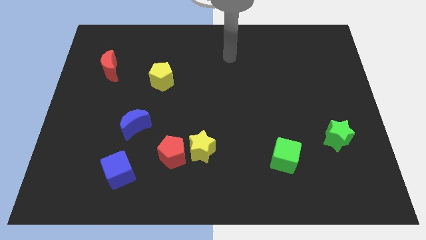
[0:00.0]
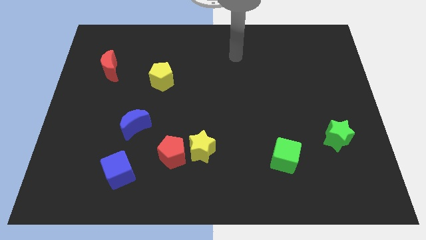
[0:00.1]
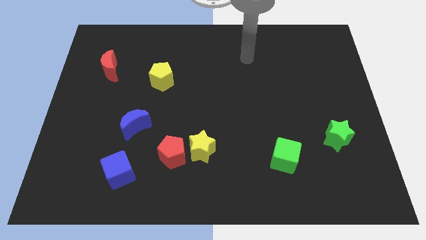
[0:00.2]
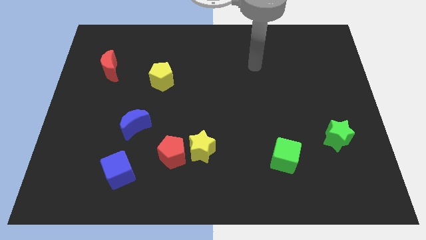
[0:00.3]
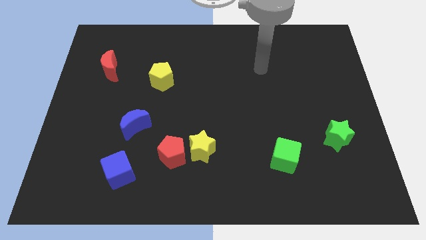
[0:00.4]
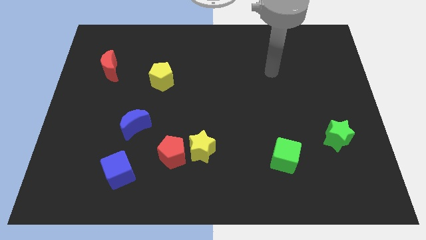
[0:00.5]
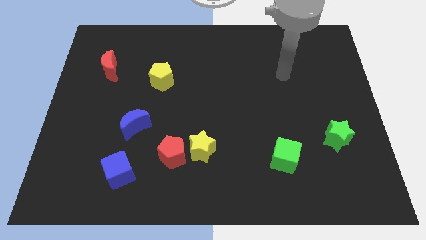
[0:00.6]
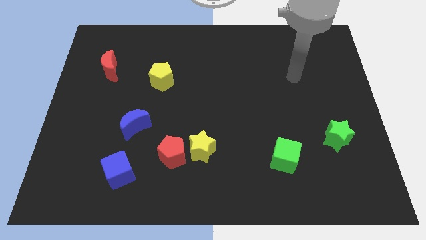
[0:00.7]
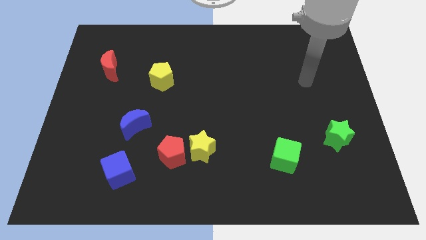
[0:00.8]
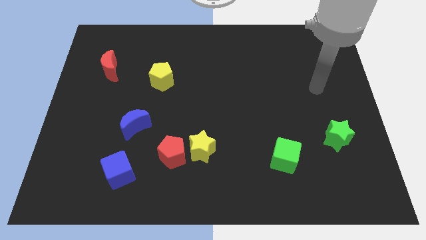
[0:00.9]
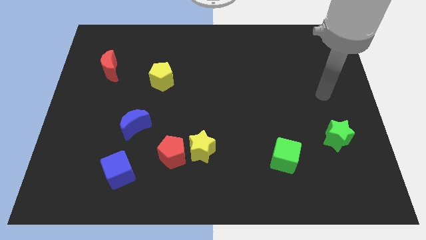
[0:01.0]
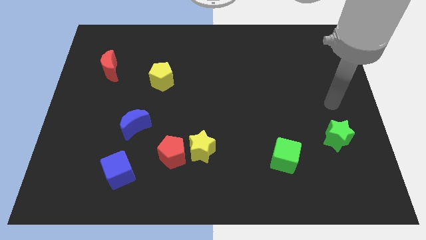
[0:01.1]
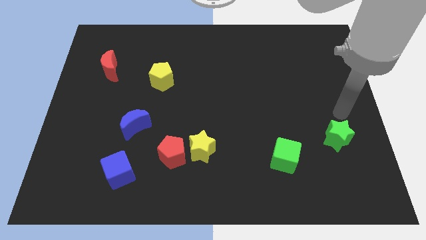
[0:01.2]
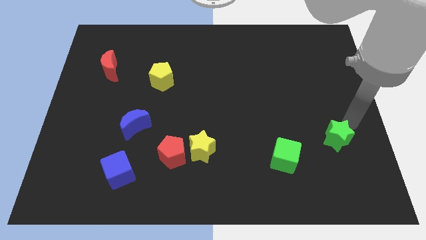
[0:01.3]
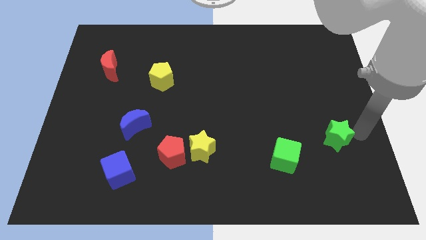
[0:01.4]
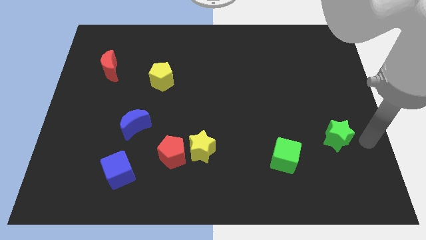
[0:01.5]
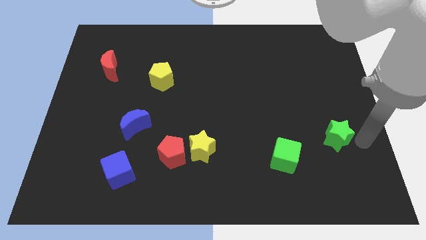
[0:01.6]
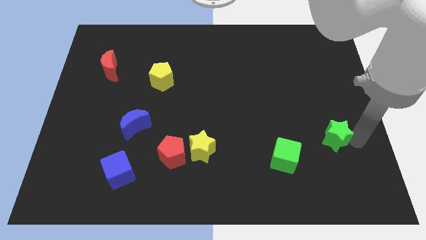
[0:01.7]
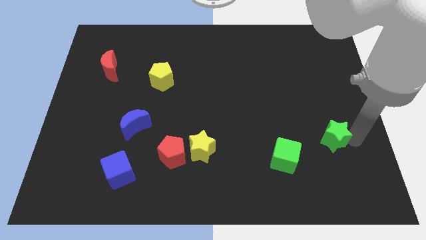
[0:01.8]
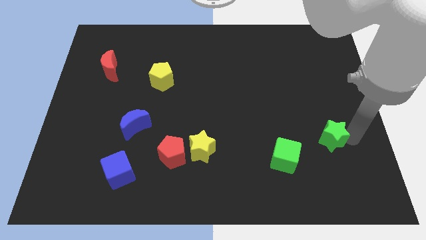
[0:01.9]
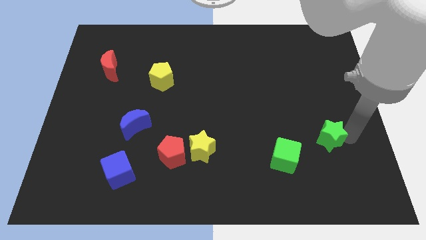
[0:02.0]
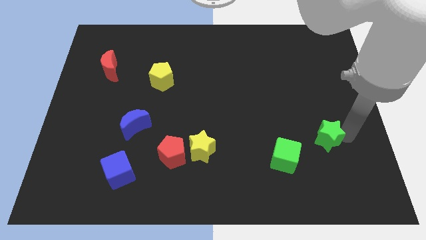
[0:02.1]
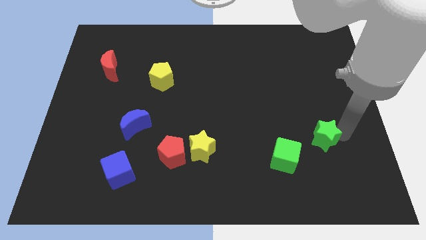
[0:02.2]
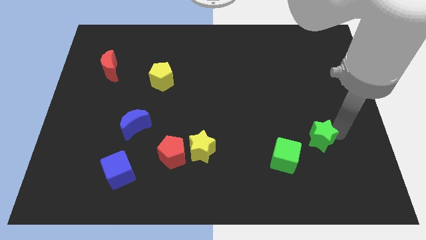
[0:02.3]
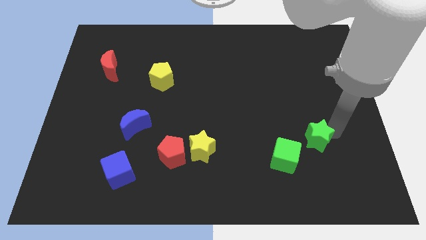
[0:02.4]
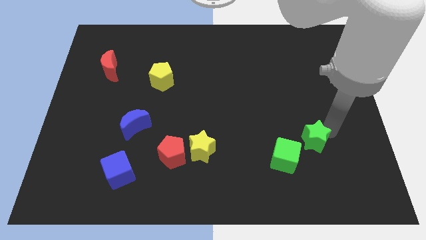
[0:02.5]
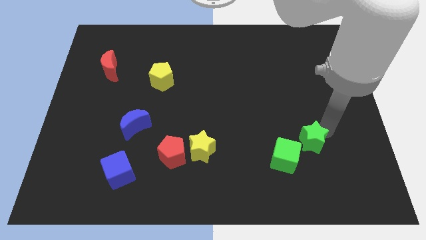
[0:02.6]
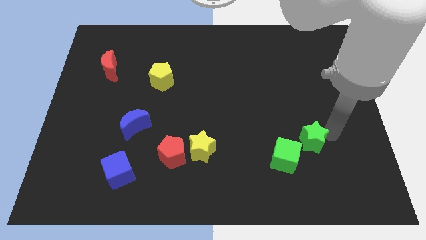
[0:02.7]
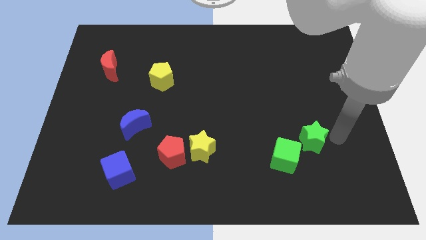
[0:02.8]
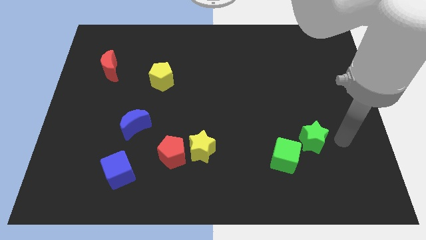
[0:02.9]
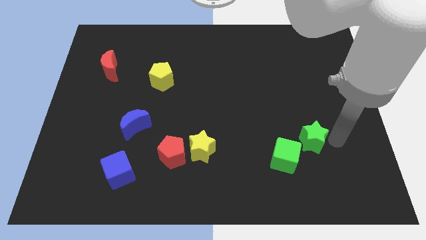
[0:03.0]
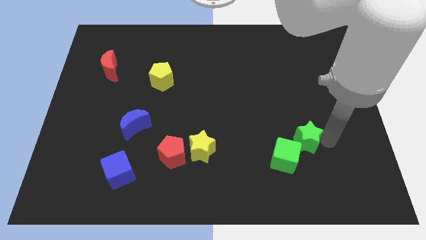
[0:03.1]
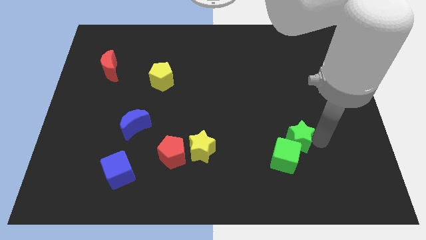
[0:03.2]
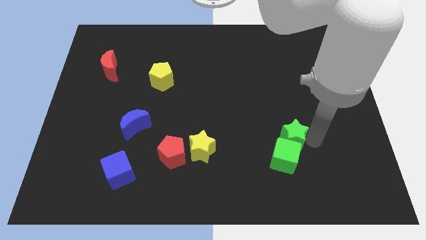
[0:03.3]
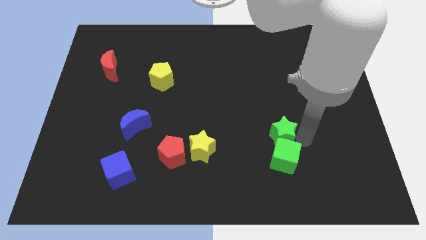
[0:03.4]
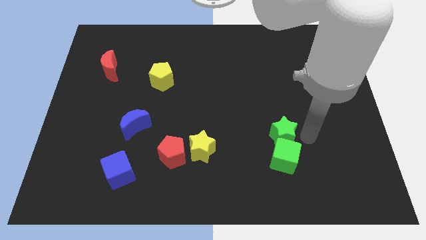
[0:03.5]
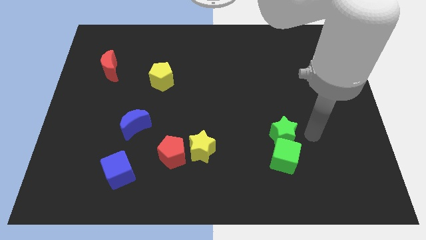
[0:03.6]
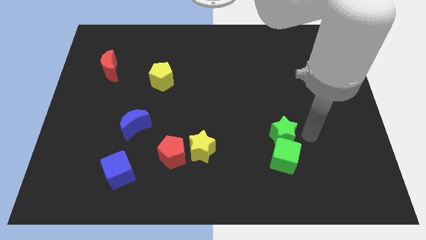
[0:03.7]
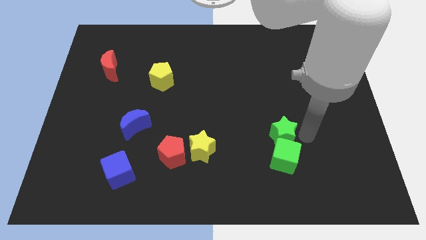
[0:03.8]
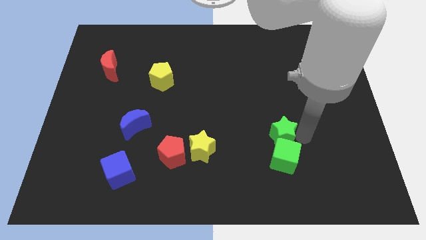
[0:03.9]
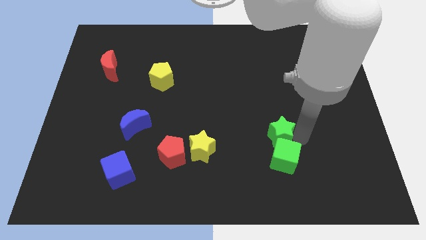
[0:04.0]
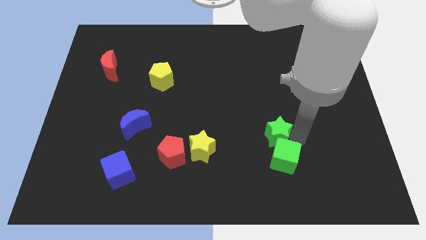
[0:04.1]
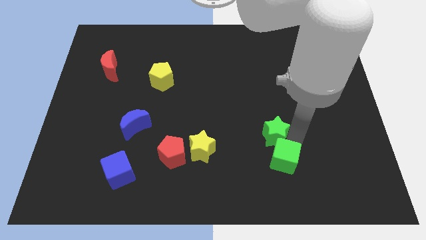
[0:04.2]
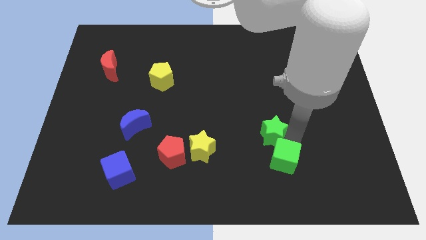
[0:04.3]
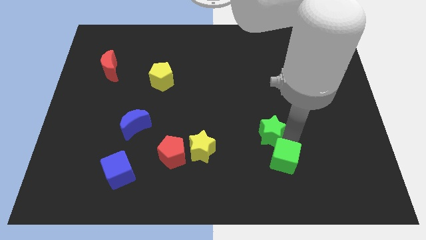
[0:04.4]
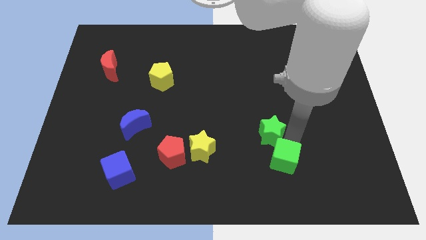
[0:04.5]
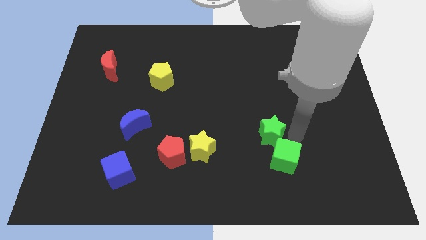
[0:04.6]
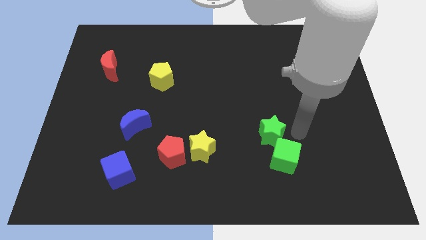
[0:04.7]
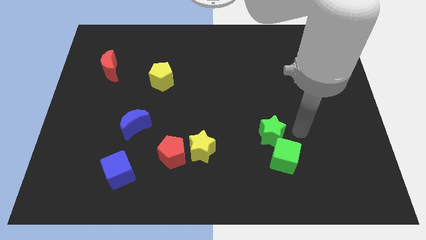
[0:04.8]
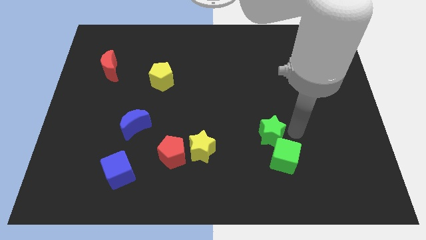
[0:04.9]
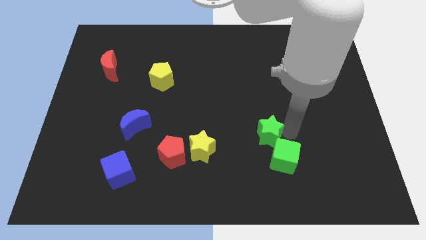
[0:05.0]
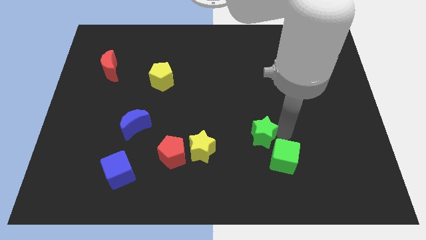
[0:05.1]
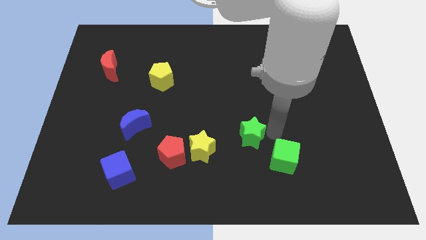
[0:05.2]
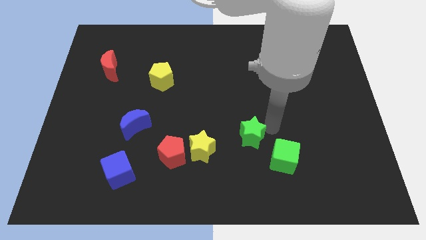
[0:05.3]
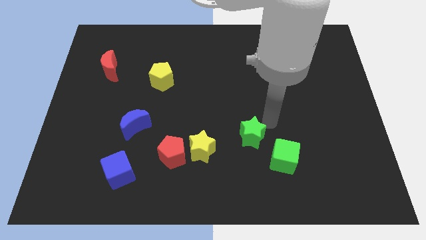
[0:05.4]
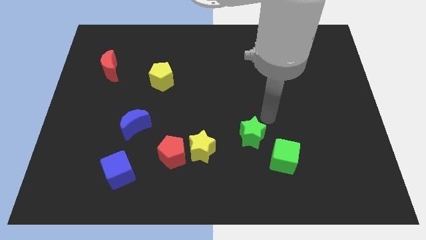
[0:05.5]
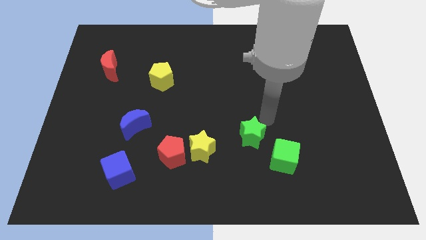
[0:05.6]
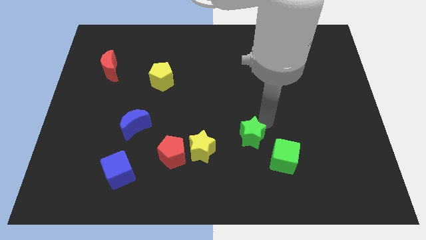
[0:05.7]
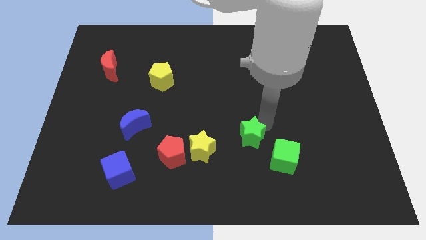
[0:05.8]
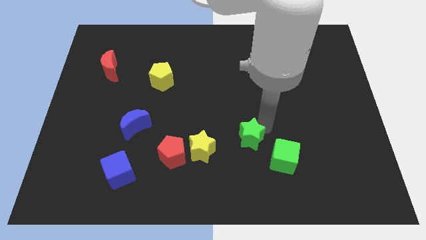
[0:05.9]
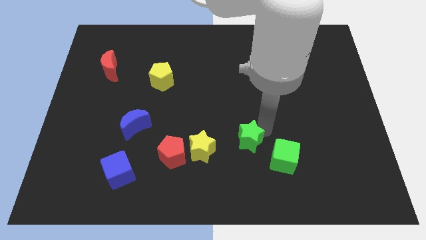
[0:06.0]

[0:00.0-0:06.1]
put the green star left of the green cube

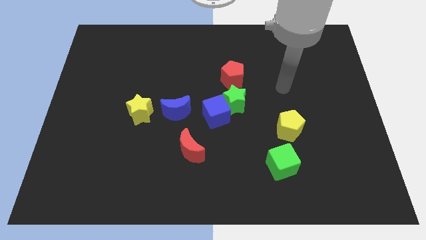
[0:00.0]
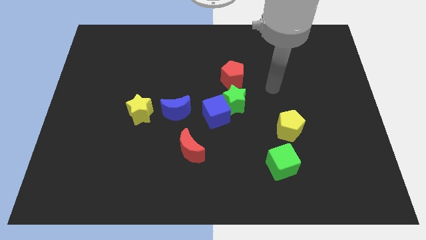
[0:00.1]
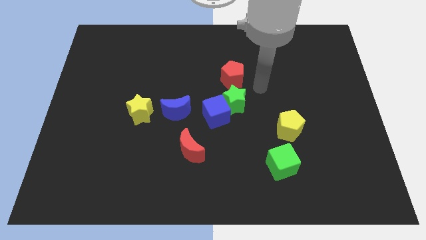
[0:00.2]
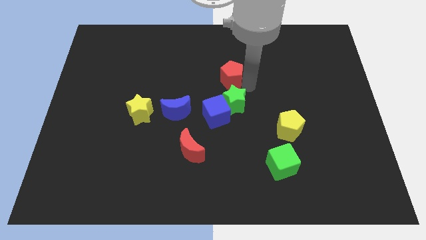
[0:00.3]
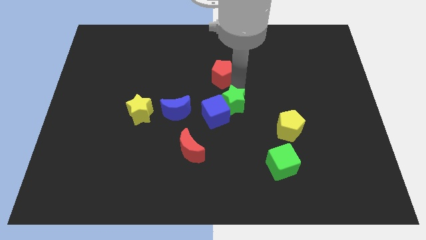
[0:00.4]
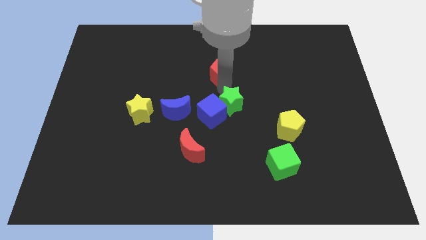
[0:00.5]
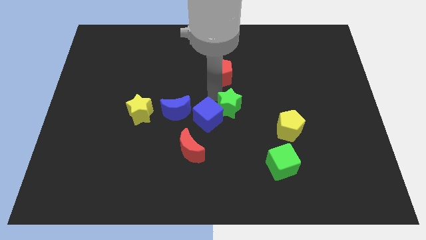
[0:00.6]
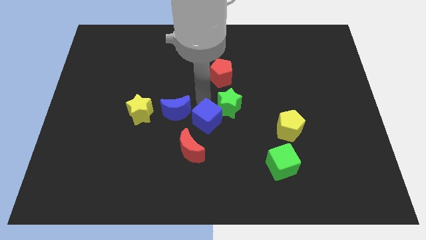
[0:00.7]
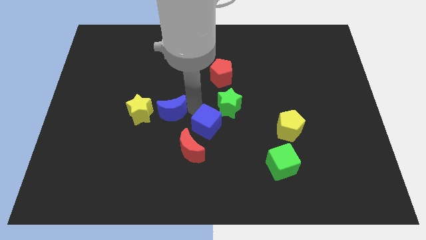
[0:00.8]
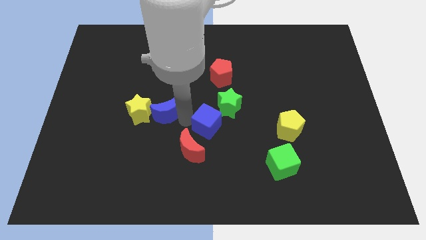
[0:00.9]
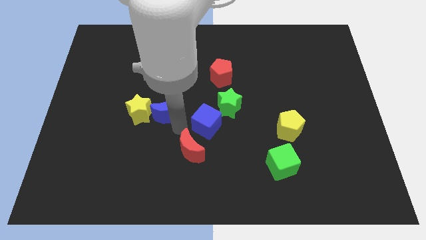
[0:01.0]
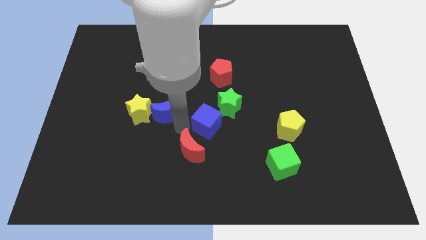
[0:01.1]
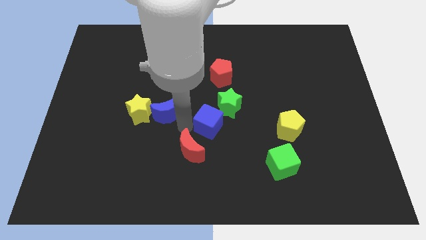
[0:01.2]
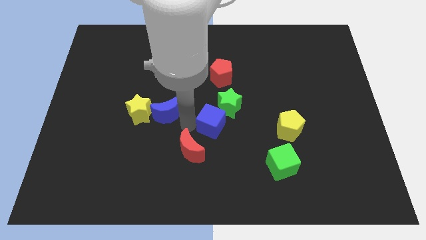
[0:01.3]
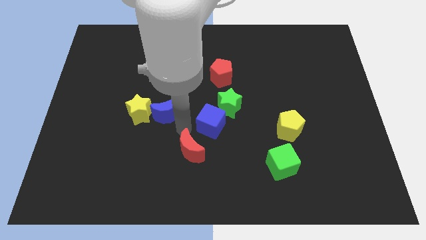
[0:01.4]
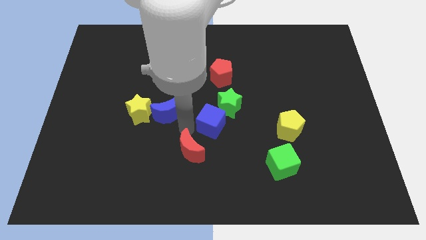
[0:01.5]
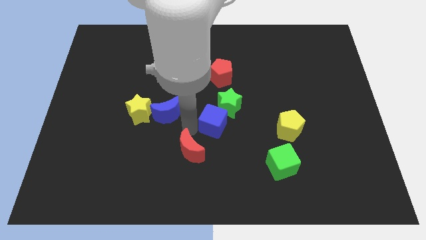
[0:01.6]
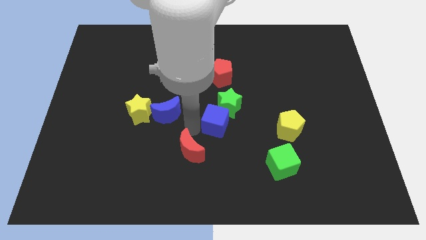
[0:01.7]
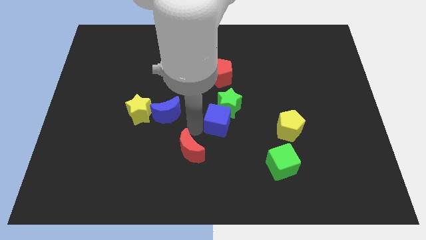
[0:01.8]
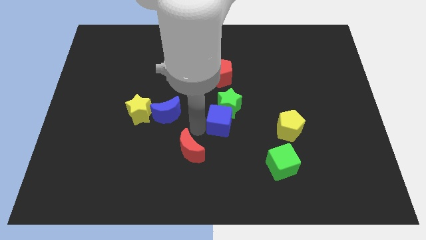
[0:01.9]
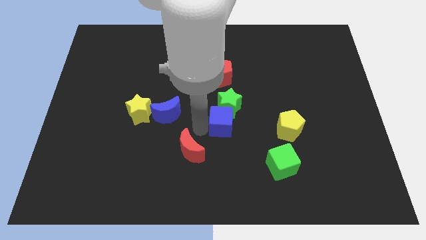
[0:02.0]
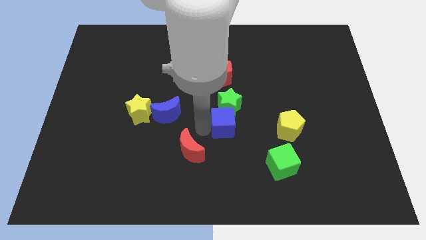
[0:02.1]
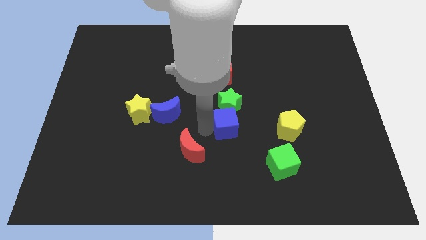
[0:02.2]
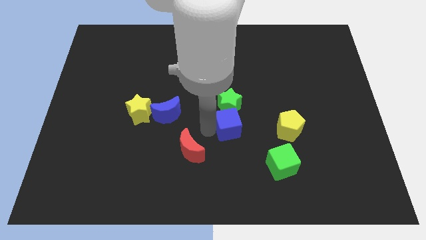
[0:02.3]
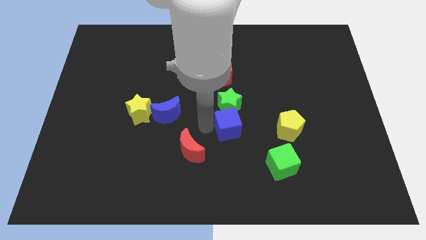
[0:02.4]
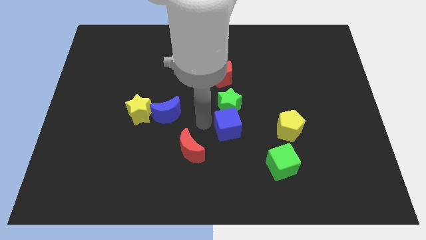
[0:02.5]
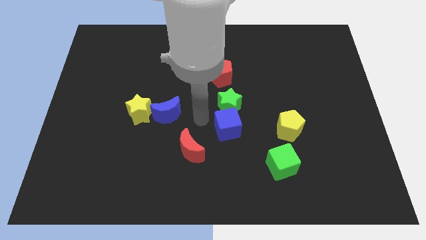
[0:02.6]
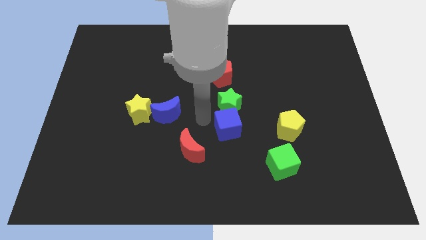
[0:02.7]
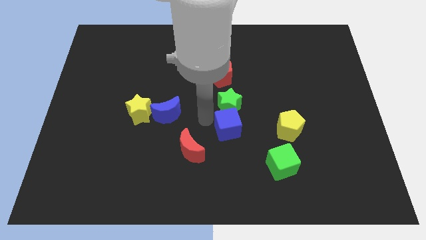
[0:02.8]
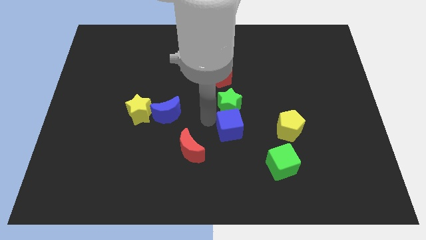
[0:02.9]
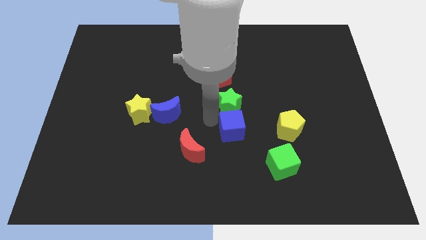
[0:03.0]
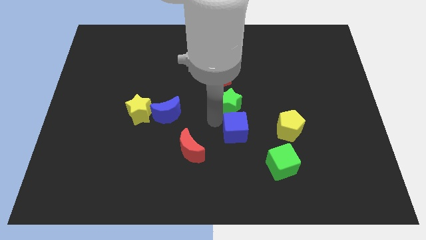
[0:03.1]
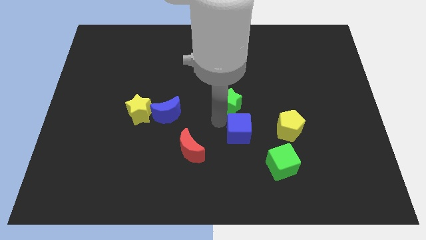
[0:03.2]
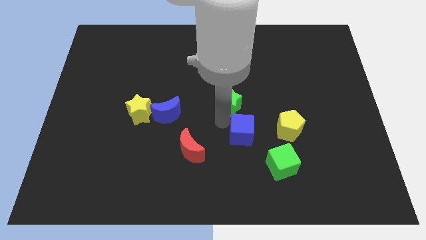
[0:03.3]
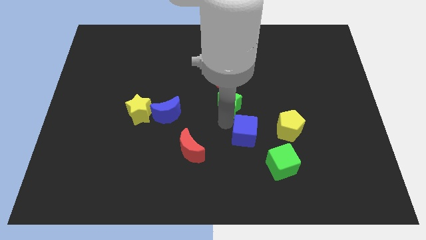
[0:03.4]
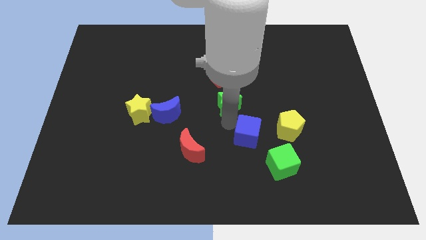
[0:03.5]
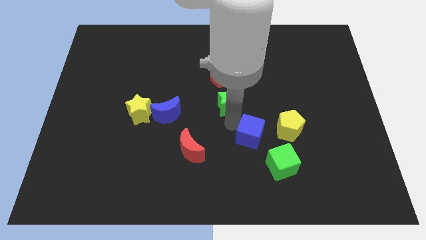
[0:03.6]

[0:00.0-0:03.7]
put the blue cube diagonally down and to the left of the yellow pentagon
